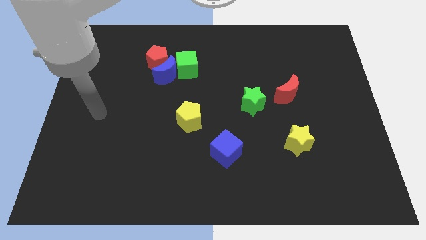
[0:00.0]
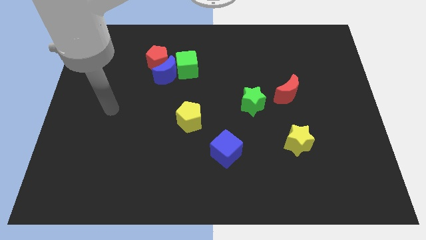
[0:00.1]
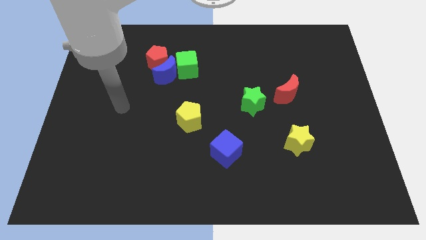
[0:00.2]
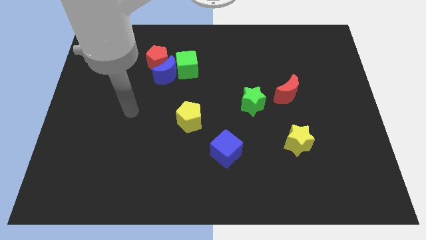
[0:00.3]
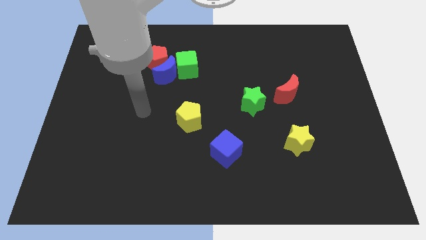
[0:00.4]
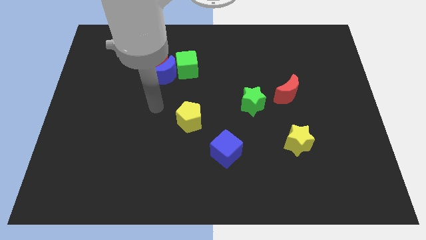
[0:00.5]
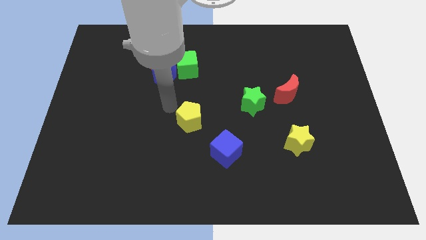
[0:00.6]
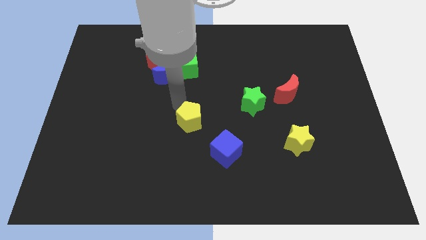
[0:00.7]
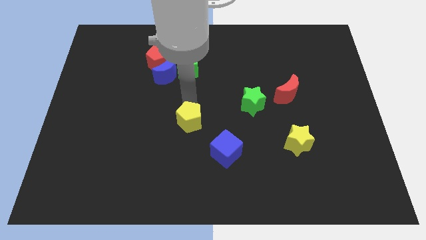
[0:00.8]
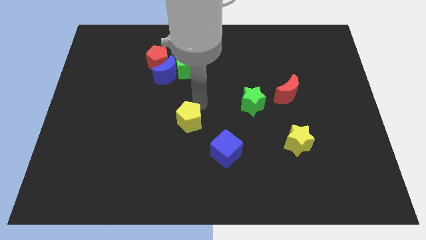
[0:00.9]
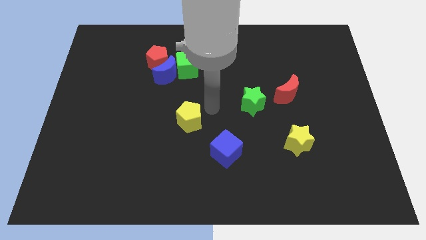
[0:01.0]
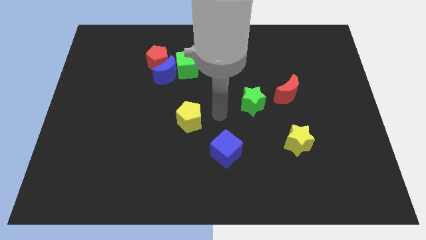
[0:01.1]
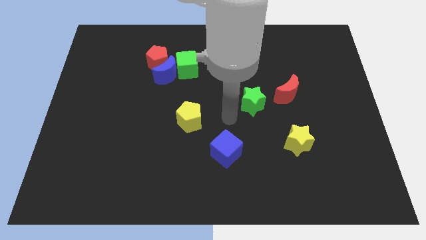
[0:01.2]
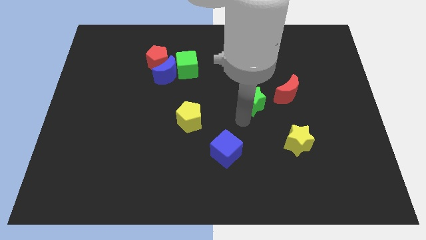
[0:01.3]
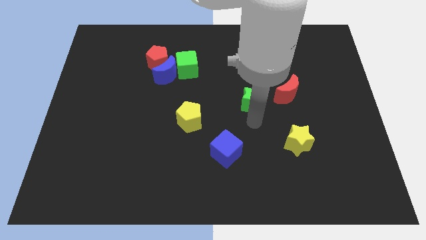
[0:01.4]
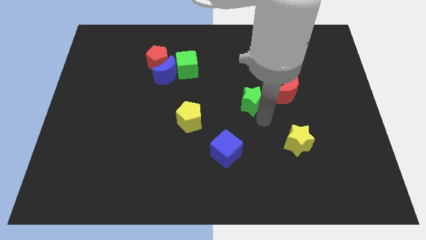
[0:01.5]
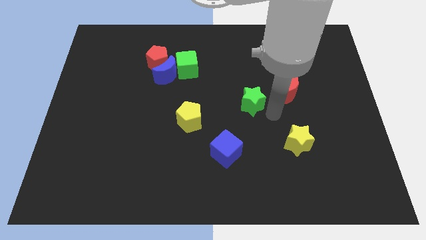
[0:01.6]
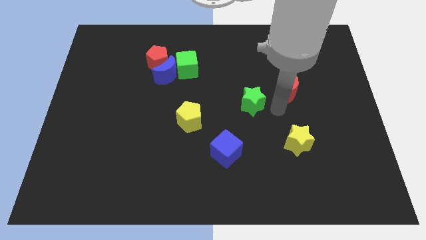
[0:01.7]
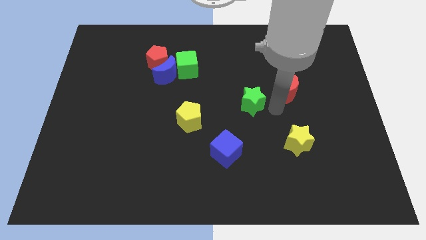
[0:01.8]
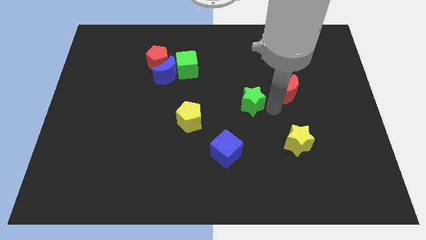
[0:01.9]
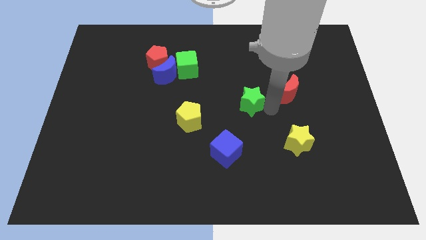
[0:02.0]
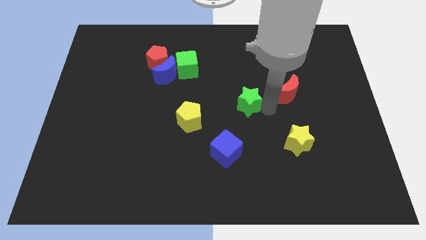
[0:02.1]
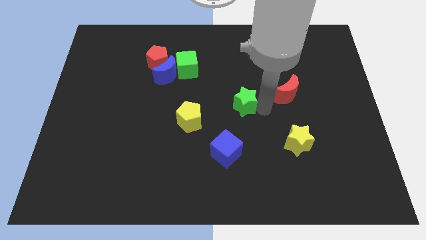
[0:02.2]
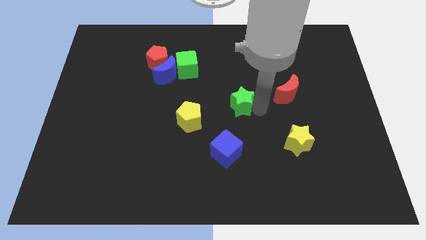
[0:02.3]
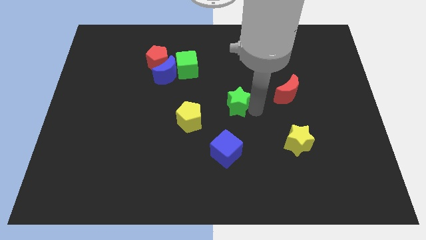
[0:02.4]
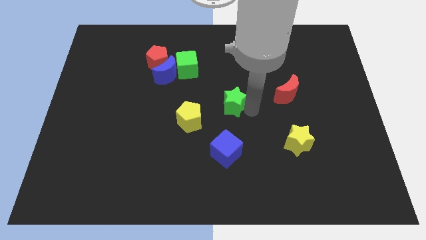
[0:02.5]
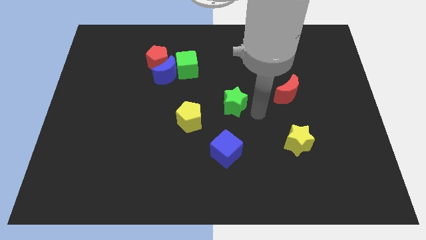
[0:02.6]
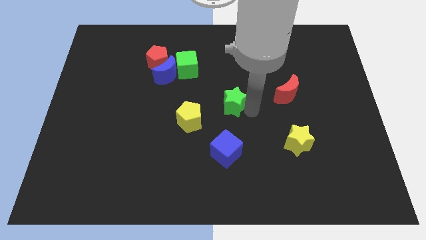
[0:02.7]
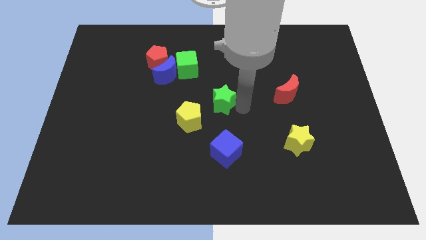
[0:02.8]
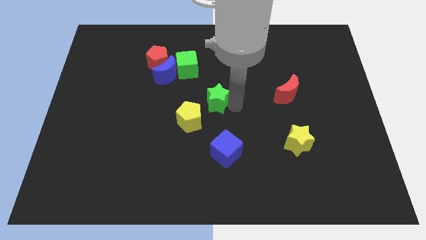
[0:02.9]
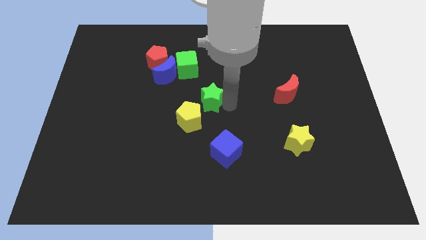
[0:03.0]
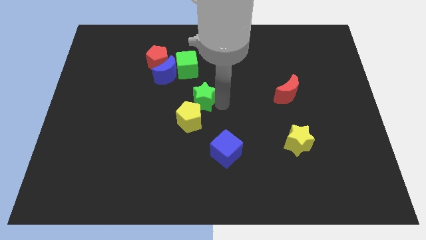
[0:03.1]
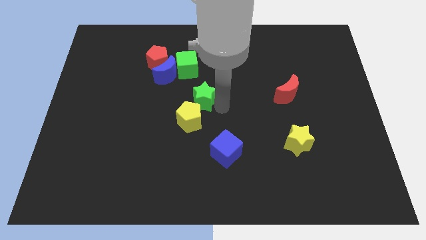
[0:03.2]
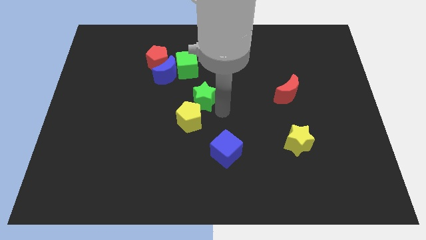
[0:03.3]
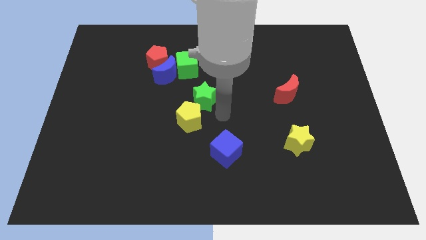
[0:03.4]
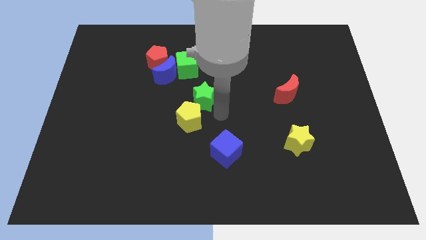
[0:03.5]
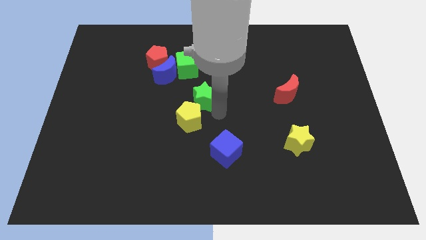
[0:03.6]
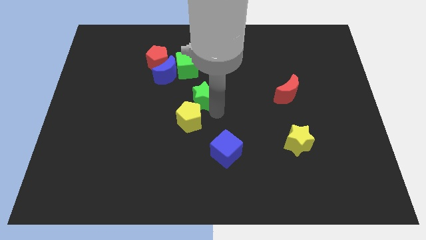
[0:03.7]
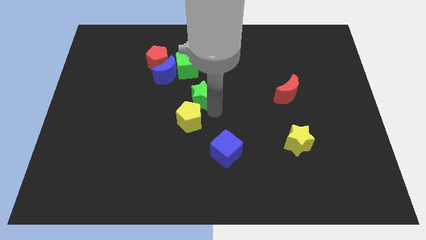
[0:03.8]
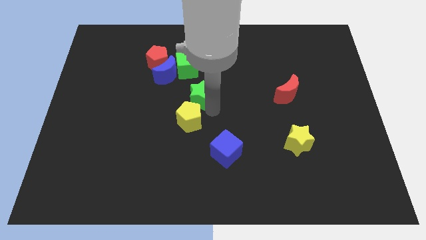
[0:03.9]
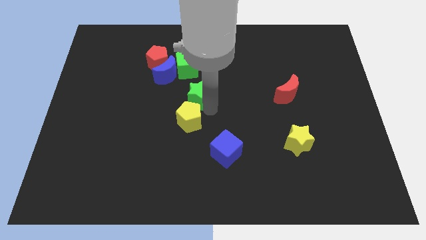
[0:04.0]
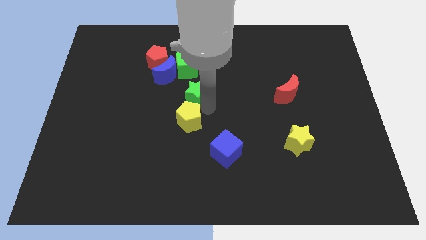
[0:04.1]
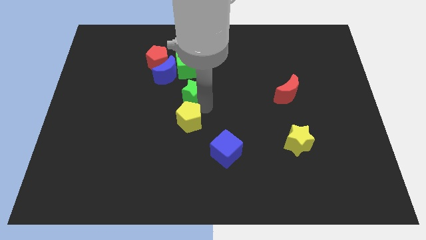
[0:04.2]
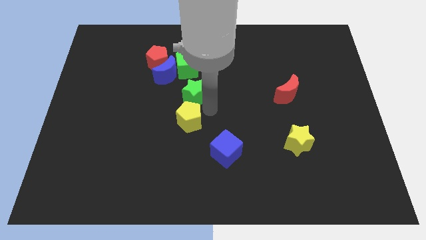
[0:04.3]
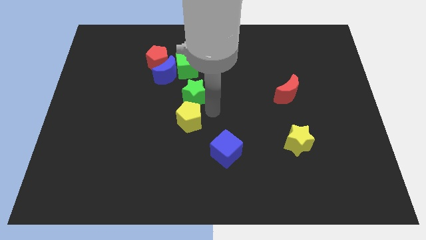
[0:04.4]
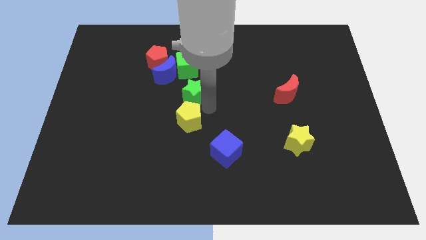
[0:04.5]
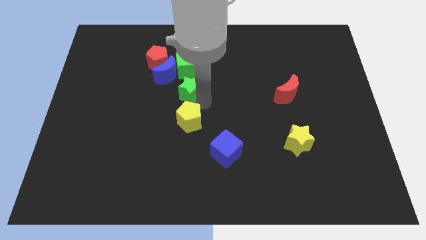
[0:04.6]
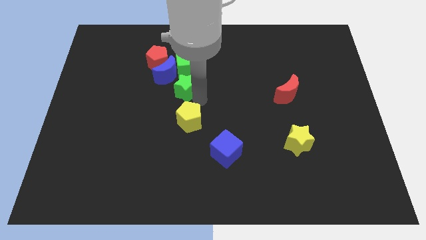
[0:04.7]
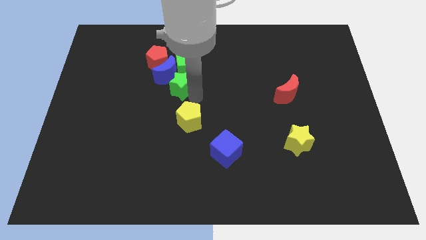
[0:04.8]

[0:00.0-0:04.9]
put the green star to the blue moon

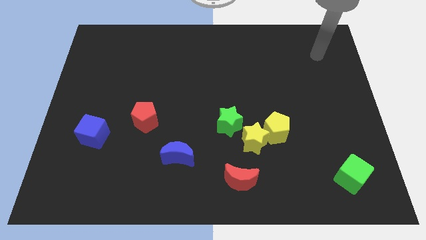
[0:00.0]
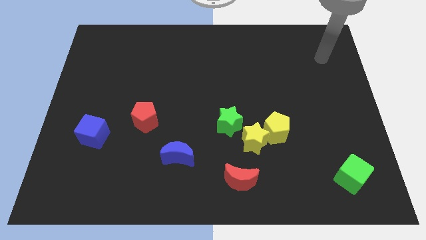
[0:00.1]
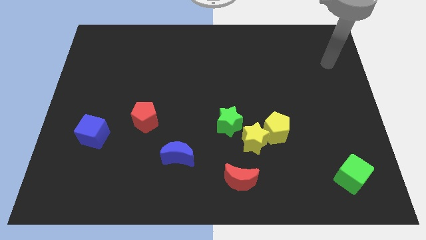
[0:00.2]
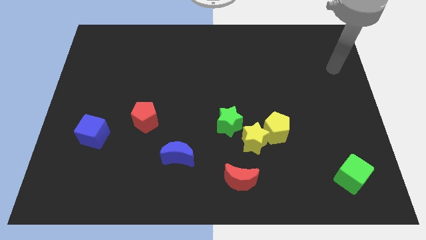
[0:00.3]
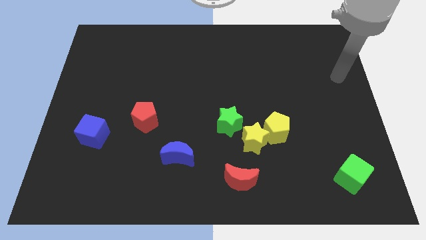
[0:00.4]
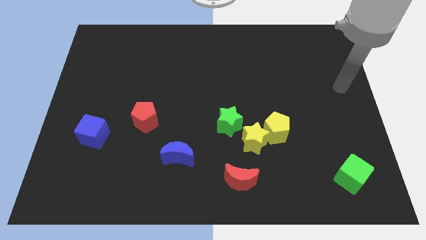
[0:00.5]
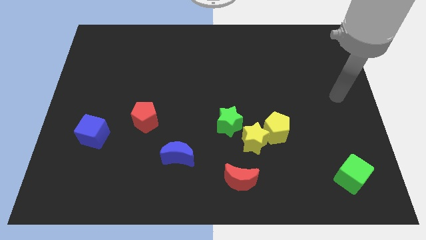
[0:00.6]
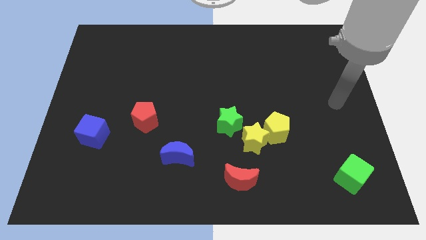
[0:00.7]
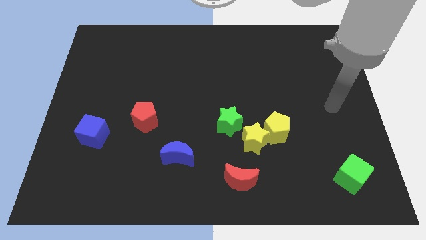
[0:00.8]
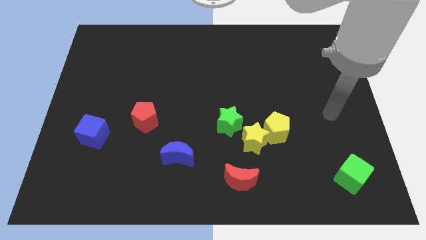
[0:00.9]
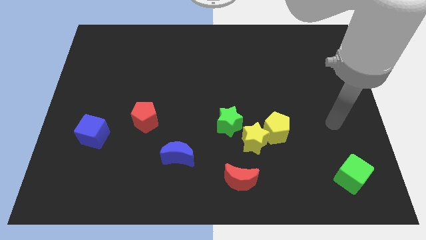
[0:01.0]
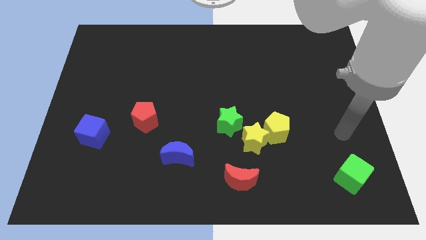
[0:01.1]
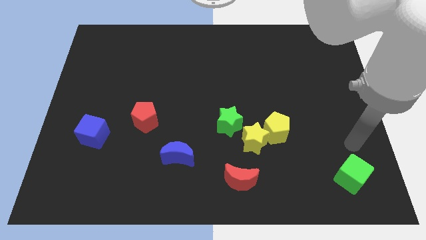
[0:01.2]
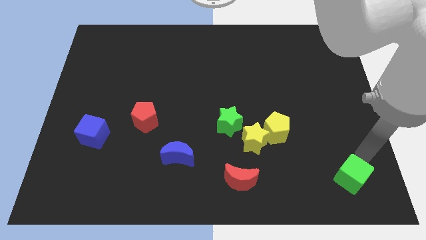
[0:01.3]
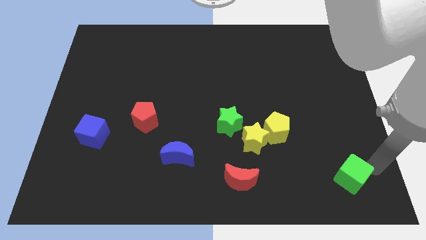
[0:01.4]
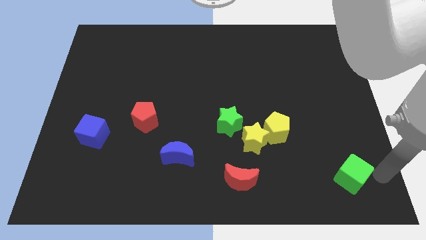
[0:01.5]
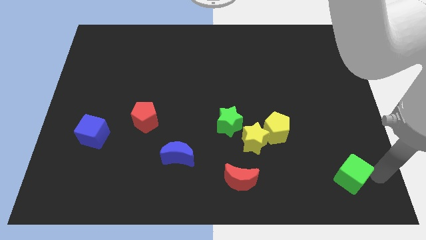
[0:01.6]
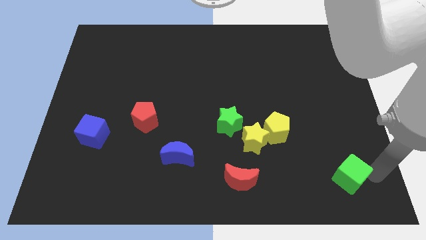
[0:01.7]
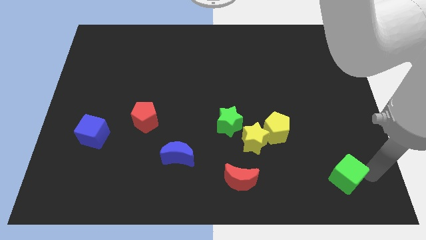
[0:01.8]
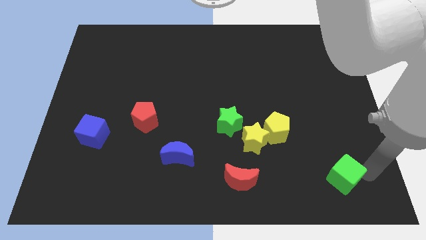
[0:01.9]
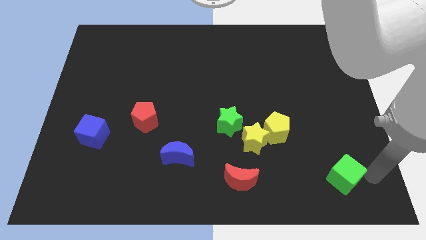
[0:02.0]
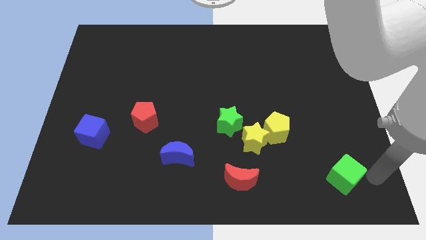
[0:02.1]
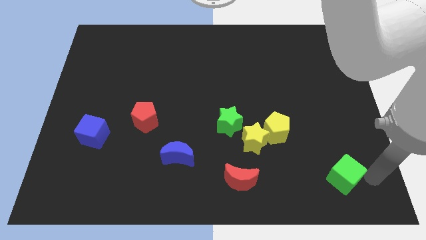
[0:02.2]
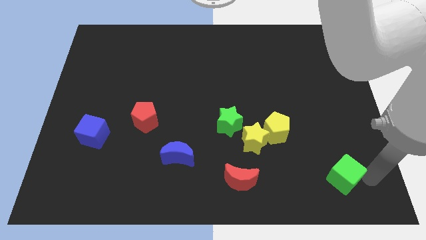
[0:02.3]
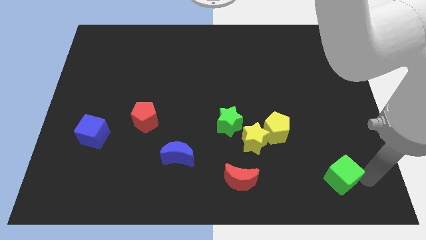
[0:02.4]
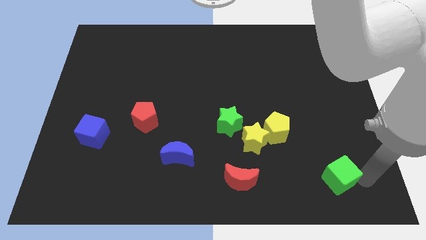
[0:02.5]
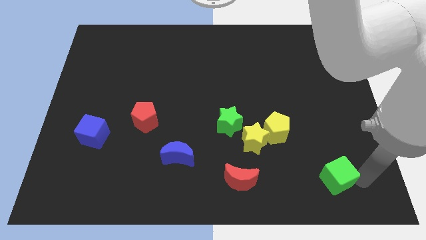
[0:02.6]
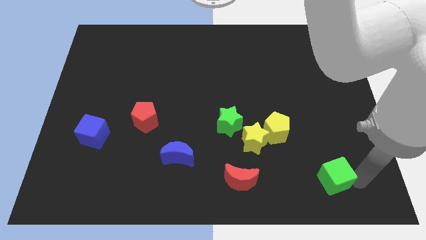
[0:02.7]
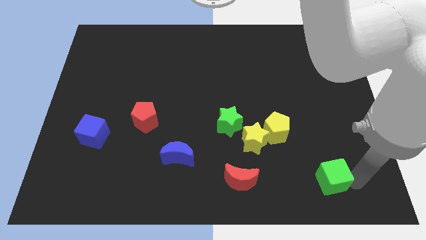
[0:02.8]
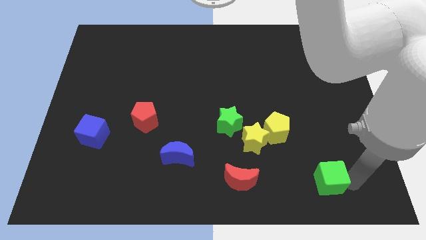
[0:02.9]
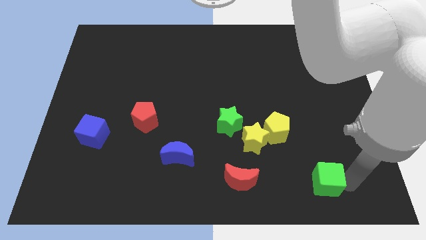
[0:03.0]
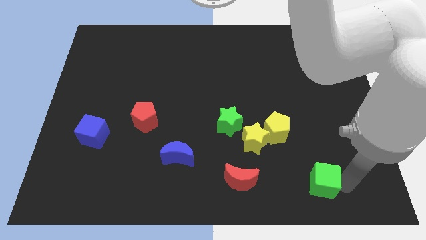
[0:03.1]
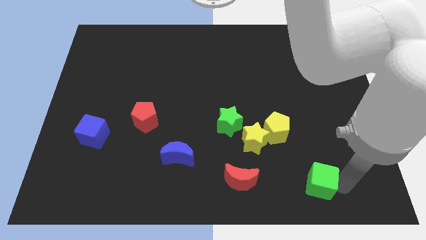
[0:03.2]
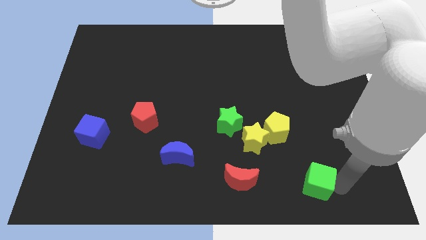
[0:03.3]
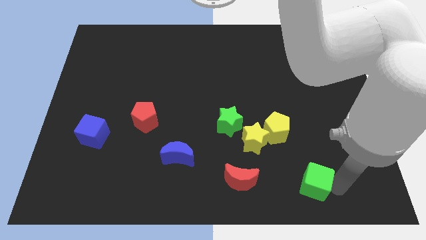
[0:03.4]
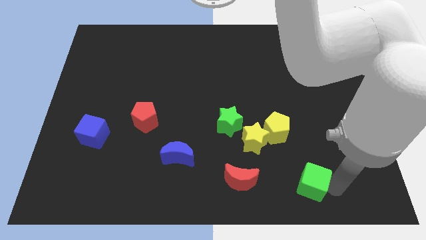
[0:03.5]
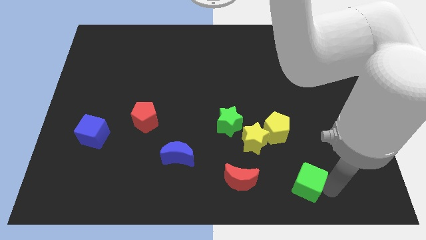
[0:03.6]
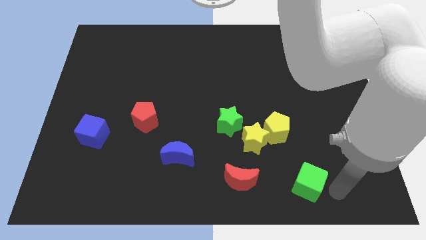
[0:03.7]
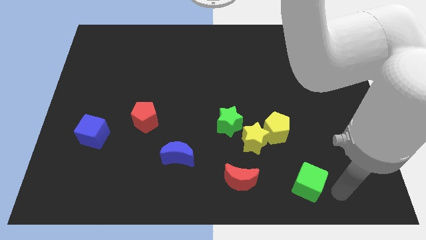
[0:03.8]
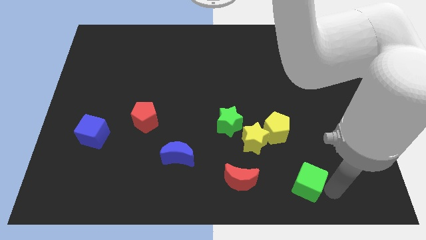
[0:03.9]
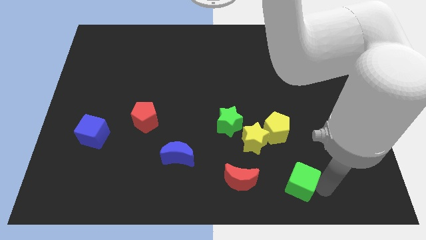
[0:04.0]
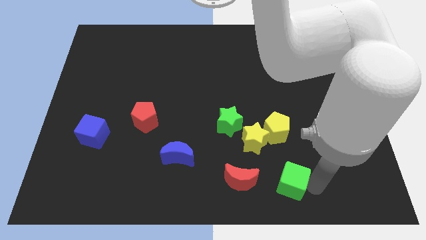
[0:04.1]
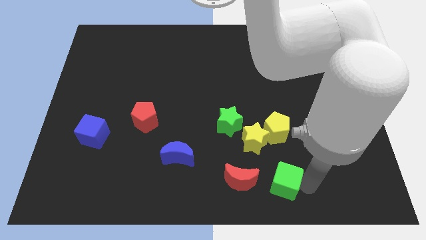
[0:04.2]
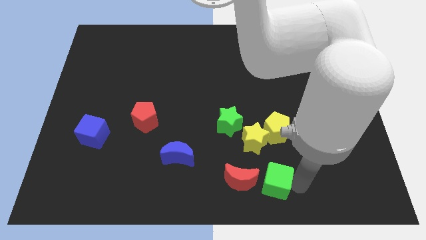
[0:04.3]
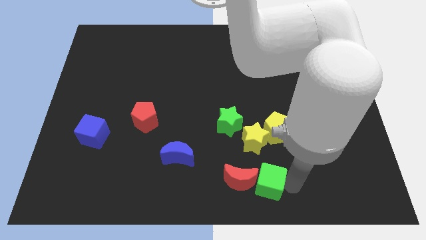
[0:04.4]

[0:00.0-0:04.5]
move the green cube towards the red moon
